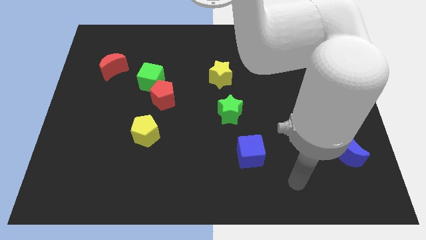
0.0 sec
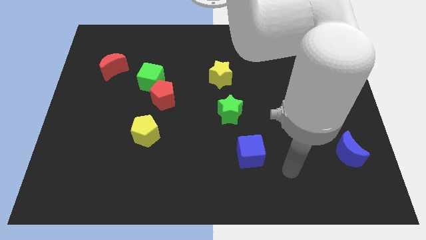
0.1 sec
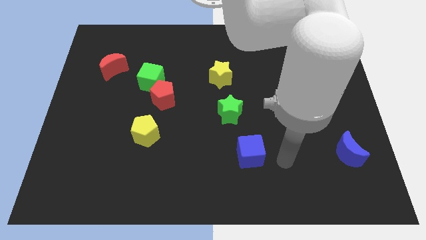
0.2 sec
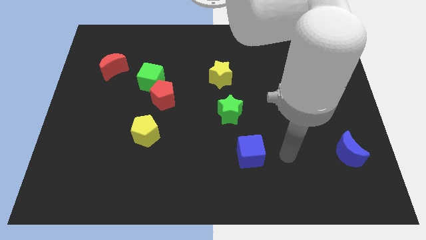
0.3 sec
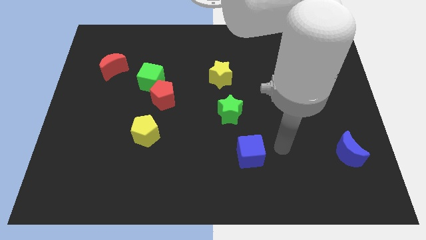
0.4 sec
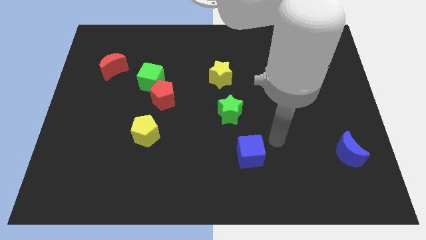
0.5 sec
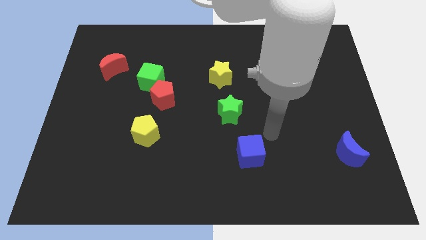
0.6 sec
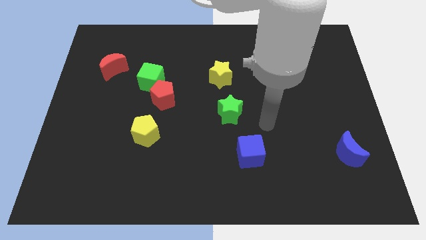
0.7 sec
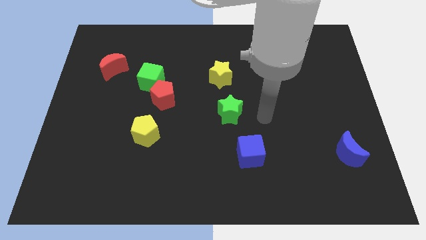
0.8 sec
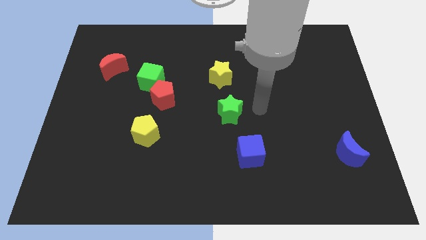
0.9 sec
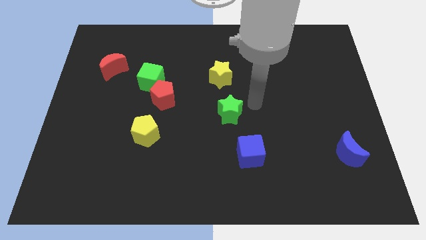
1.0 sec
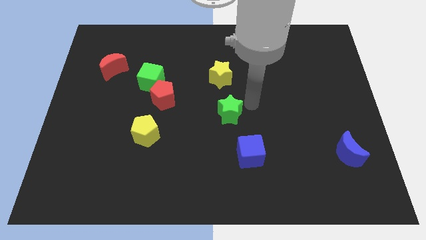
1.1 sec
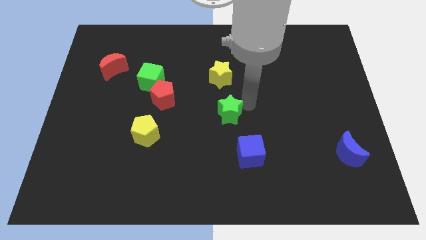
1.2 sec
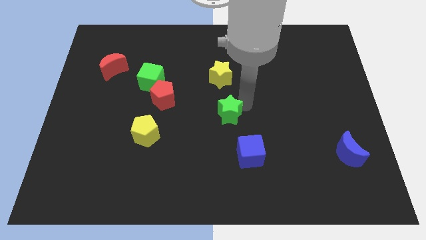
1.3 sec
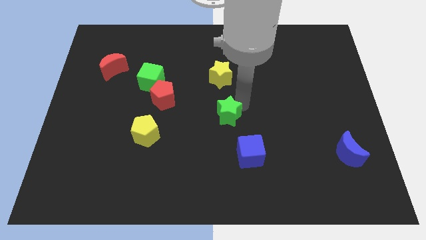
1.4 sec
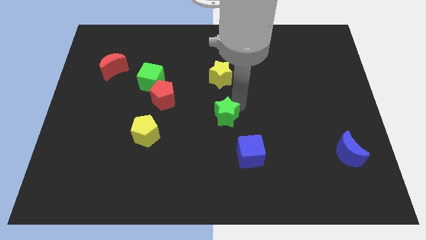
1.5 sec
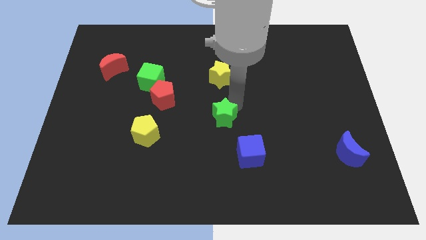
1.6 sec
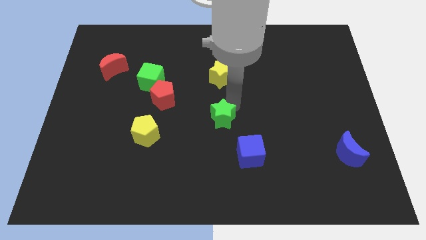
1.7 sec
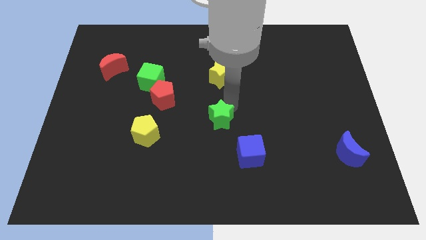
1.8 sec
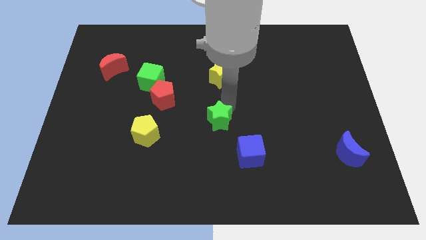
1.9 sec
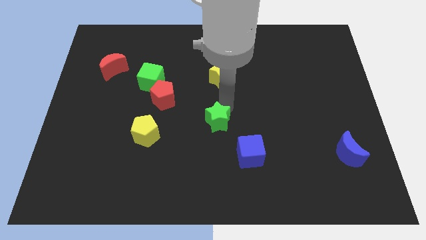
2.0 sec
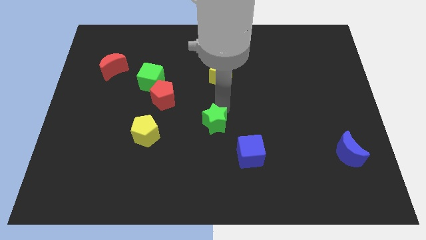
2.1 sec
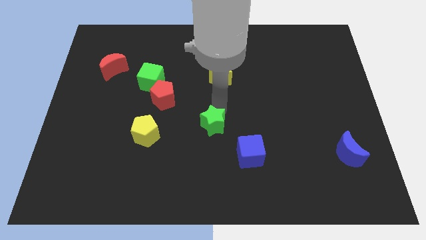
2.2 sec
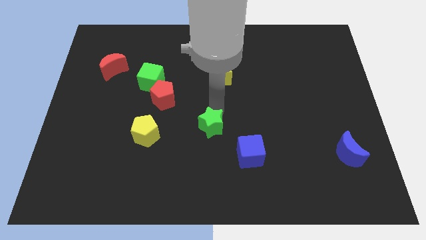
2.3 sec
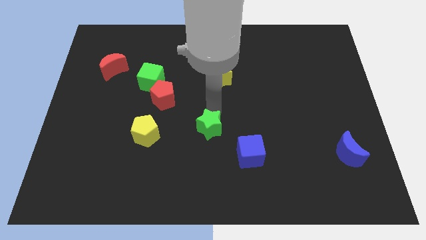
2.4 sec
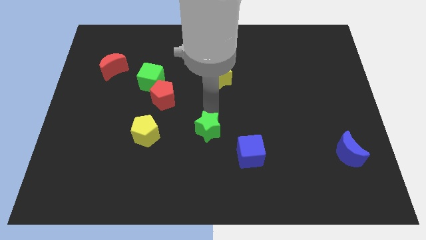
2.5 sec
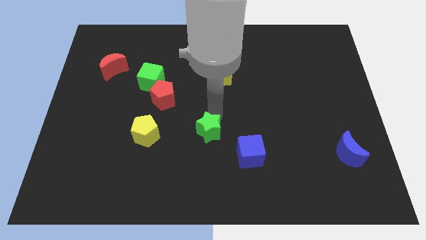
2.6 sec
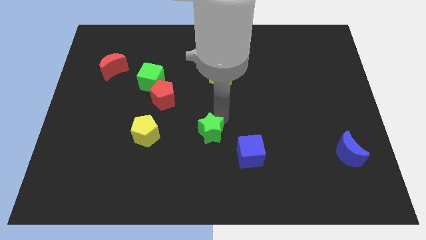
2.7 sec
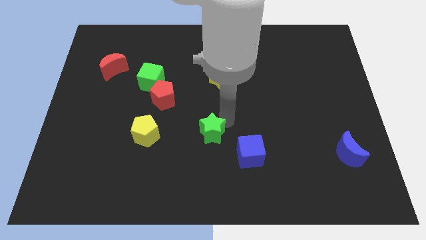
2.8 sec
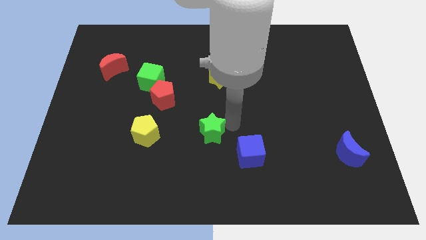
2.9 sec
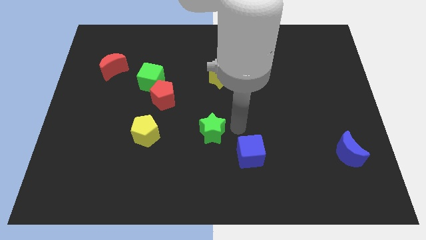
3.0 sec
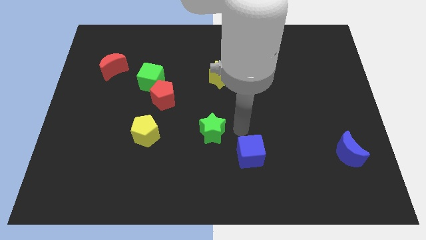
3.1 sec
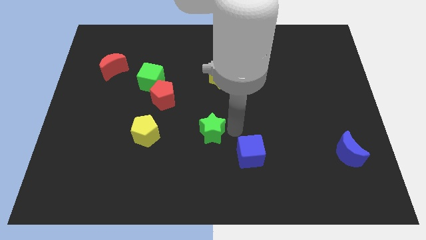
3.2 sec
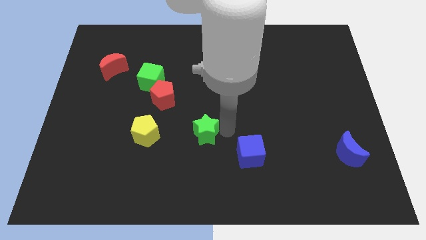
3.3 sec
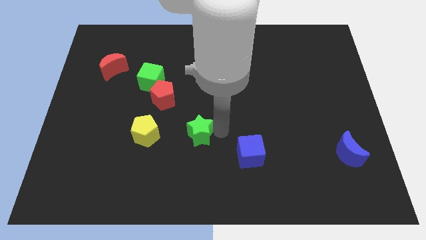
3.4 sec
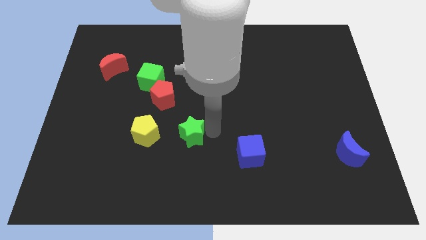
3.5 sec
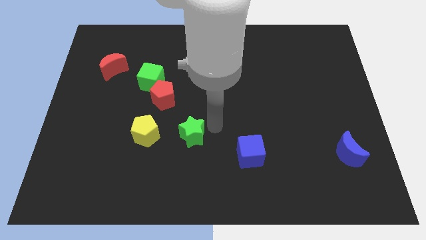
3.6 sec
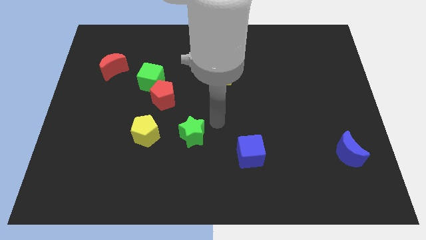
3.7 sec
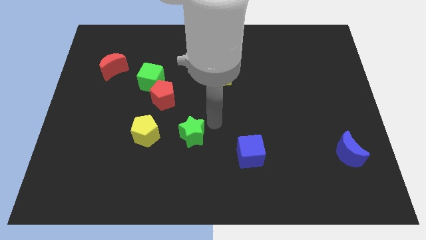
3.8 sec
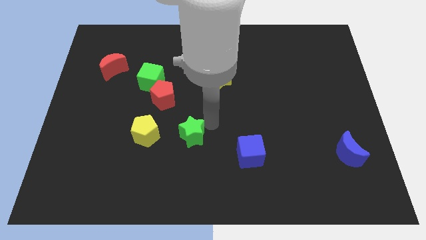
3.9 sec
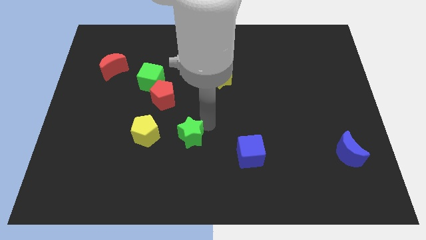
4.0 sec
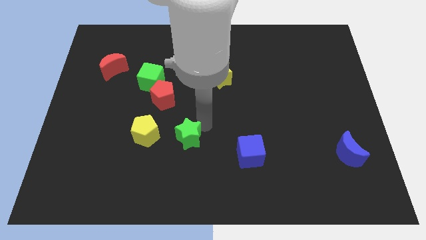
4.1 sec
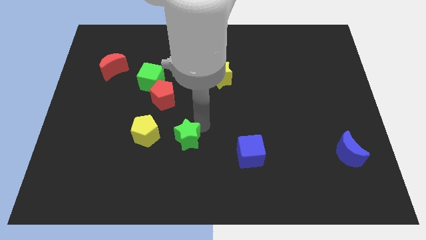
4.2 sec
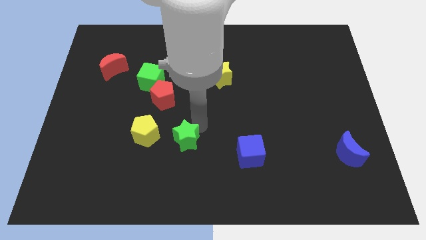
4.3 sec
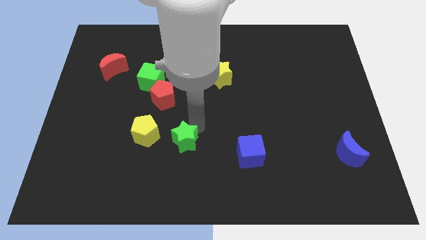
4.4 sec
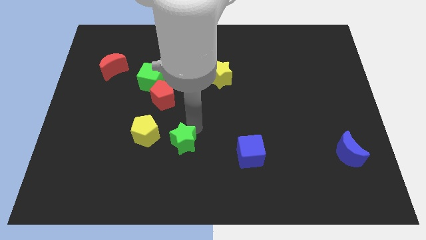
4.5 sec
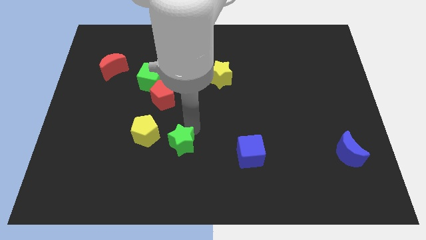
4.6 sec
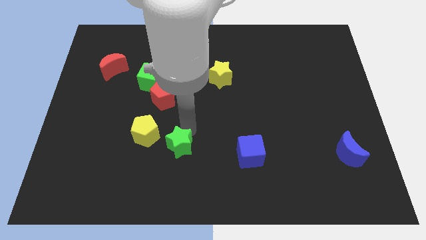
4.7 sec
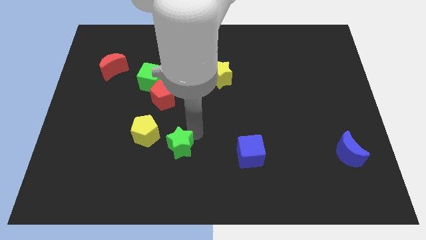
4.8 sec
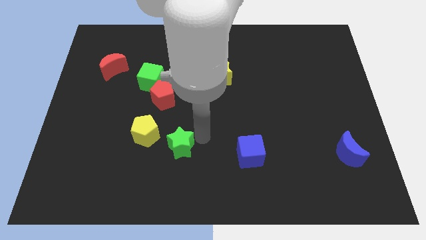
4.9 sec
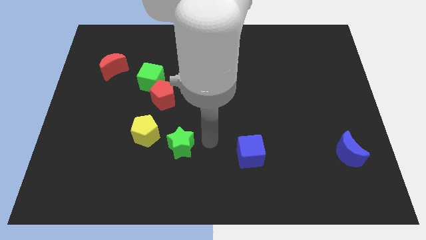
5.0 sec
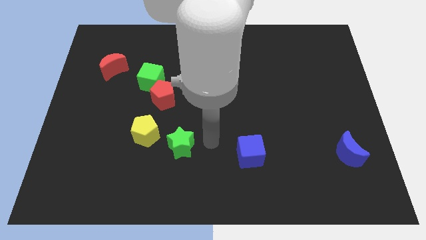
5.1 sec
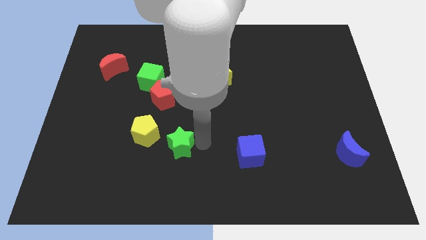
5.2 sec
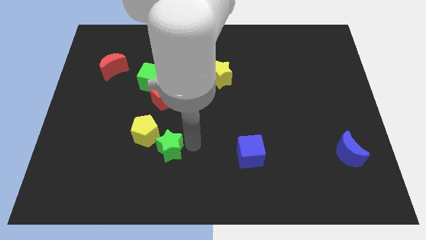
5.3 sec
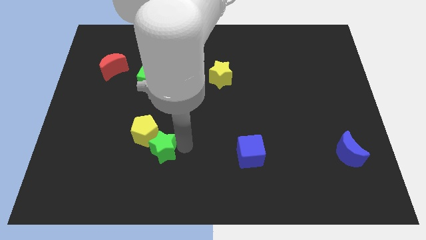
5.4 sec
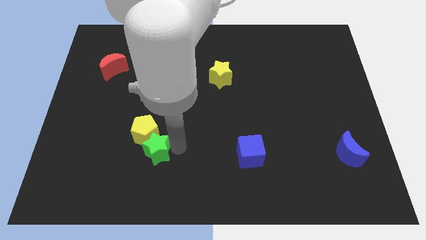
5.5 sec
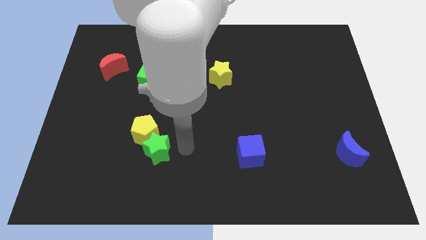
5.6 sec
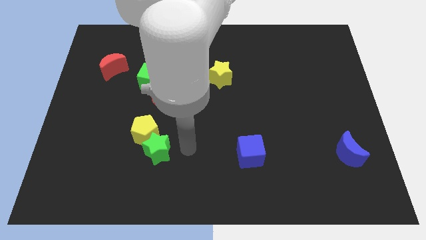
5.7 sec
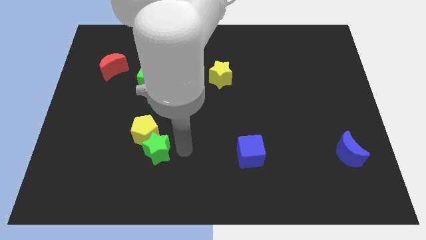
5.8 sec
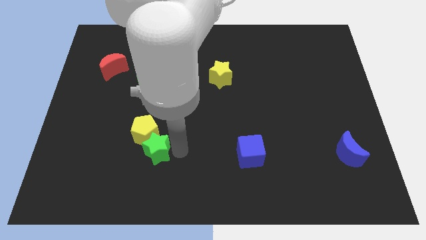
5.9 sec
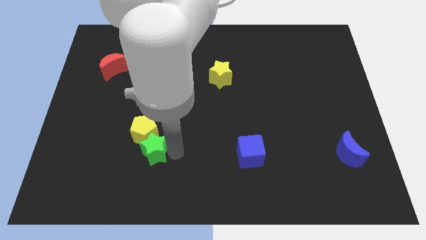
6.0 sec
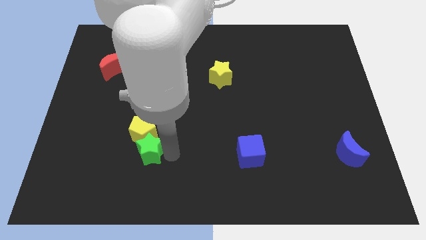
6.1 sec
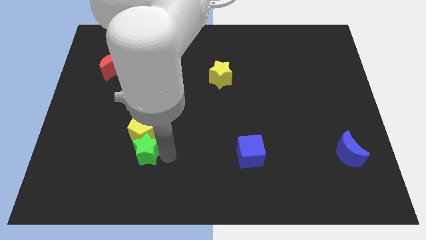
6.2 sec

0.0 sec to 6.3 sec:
move the green star to the bottom left side of the yellow pentagon

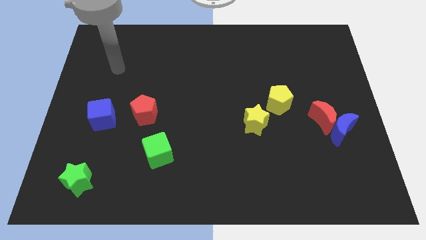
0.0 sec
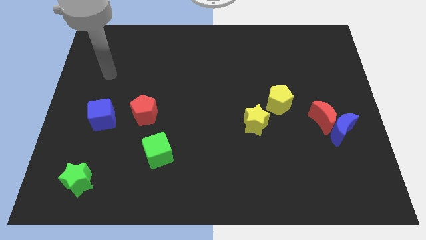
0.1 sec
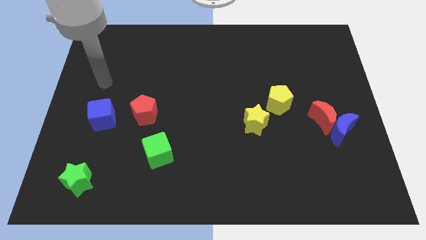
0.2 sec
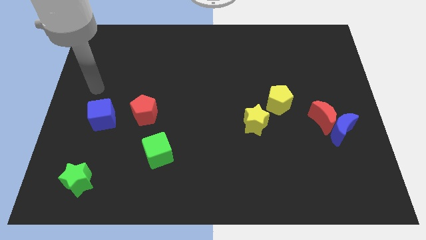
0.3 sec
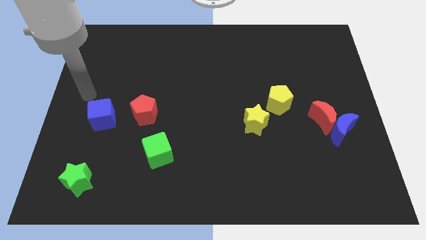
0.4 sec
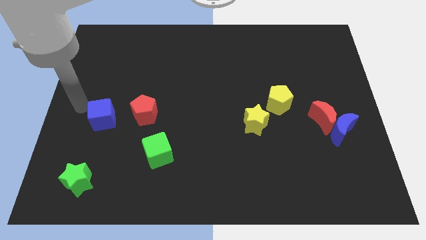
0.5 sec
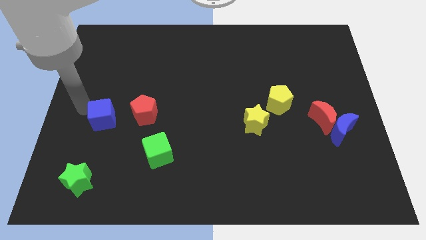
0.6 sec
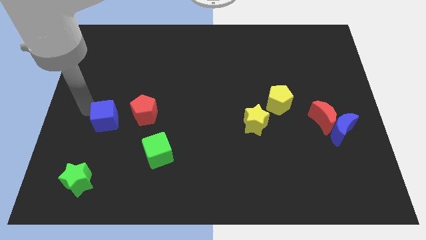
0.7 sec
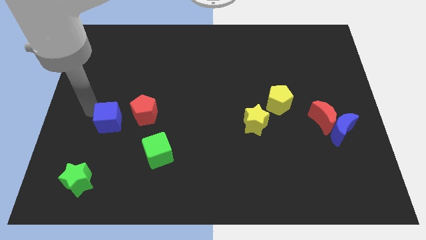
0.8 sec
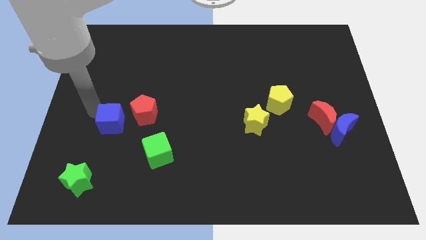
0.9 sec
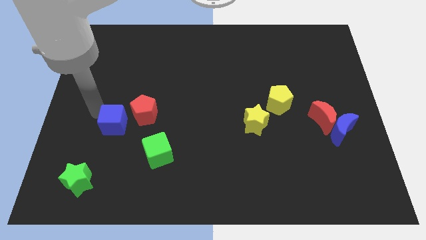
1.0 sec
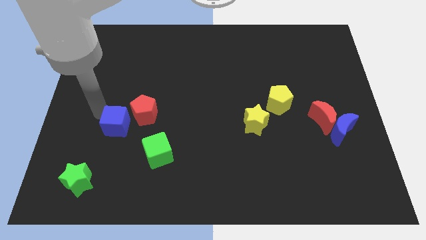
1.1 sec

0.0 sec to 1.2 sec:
slide the blue cube to the top left of the green cube
